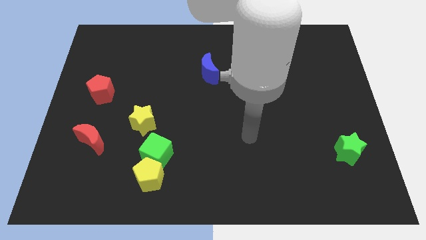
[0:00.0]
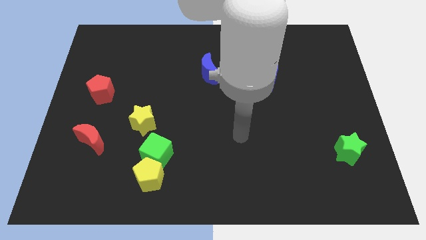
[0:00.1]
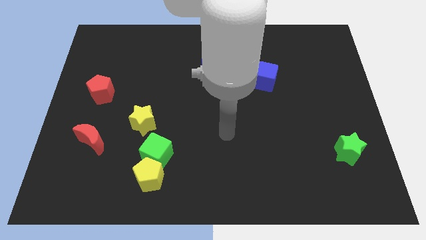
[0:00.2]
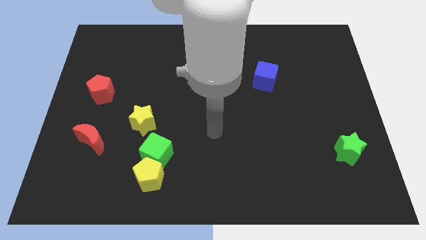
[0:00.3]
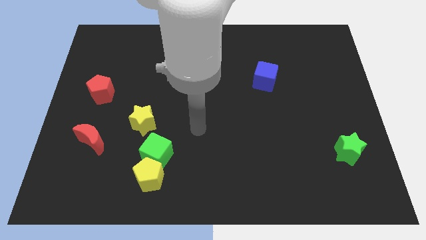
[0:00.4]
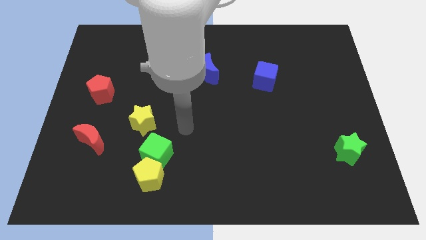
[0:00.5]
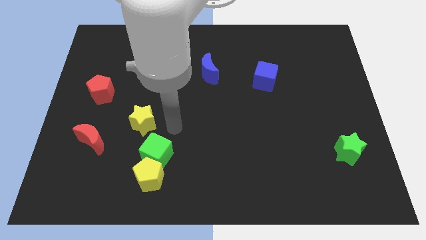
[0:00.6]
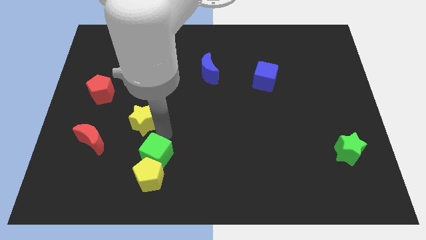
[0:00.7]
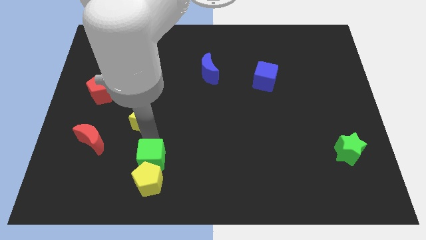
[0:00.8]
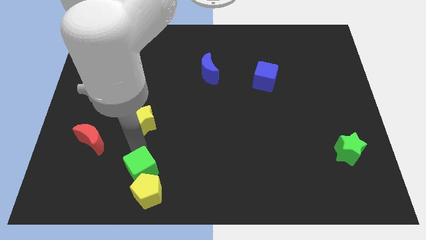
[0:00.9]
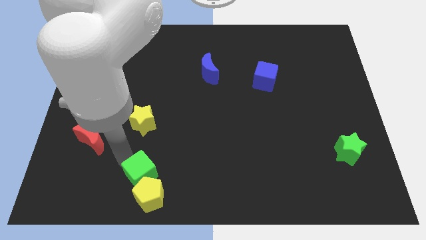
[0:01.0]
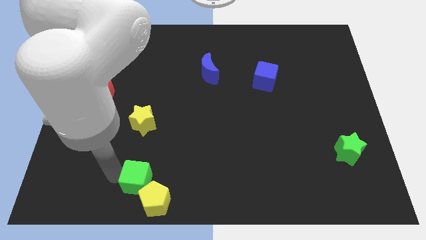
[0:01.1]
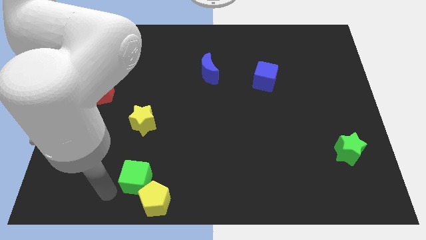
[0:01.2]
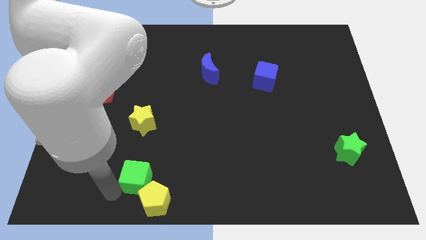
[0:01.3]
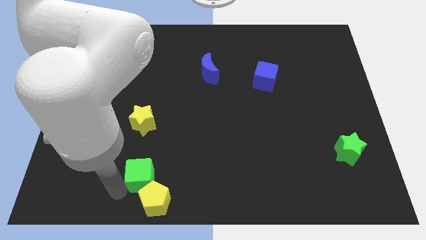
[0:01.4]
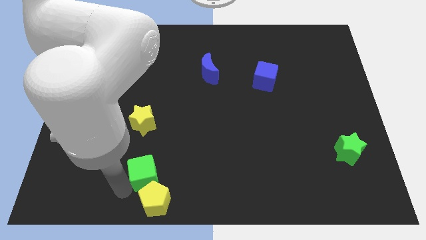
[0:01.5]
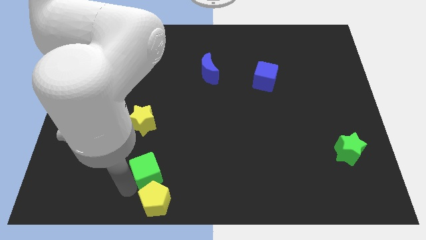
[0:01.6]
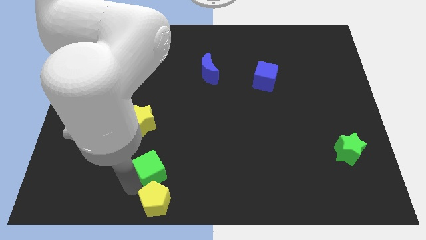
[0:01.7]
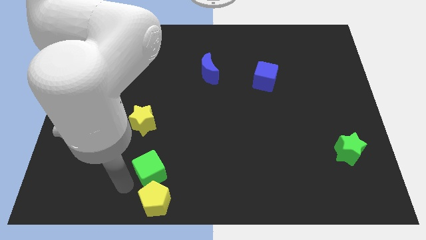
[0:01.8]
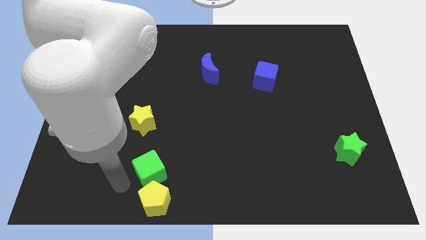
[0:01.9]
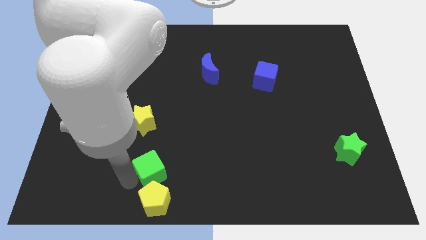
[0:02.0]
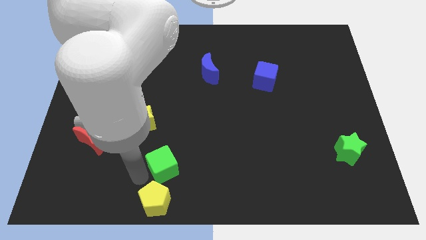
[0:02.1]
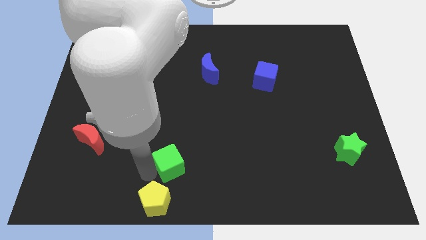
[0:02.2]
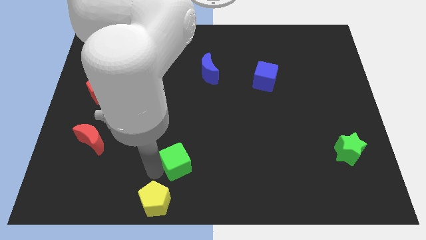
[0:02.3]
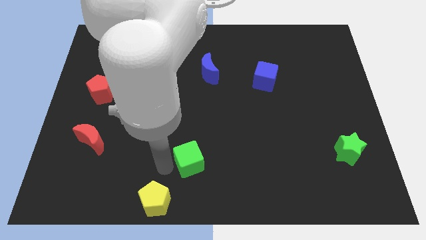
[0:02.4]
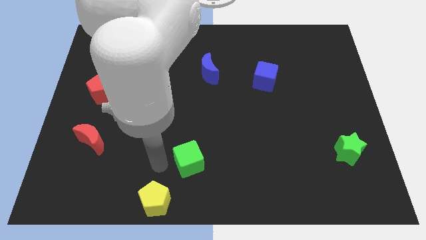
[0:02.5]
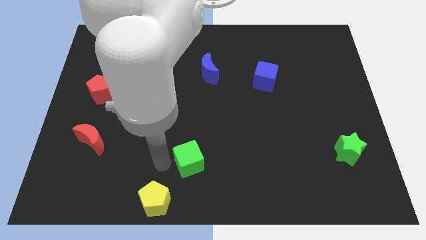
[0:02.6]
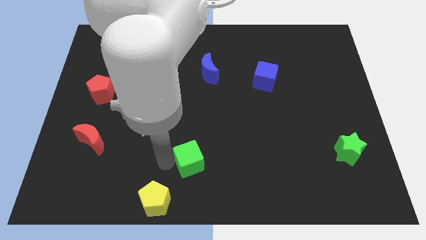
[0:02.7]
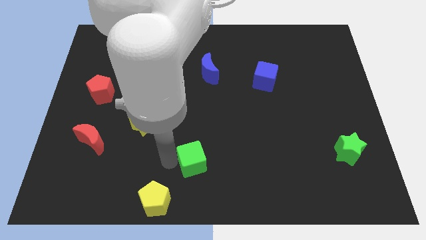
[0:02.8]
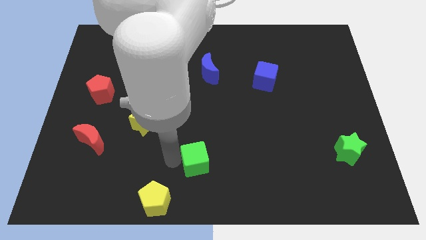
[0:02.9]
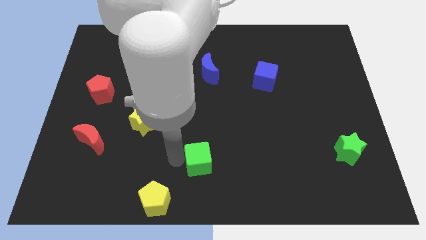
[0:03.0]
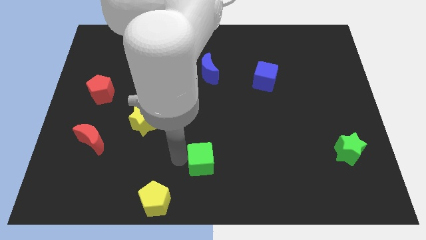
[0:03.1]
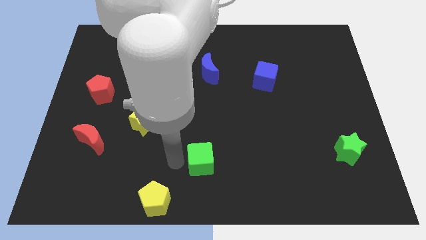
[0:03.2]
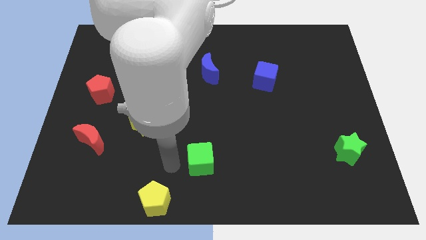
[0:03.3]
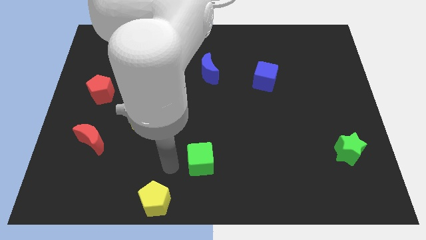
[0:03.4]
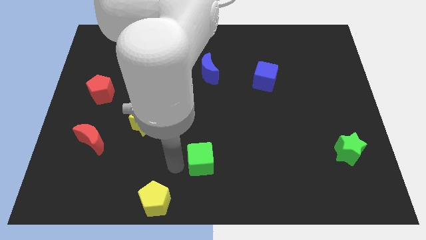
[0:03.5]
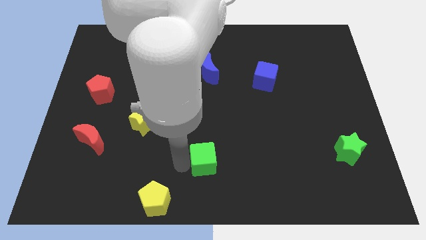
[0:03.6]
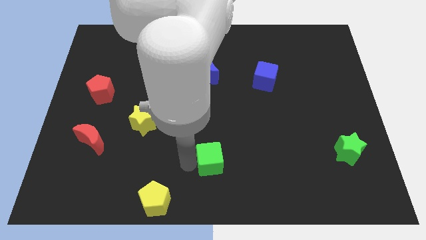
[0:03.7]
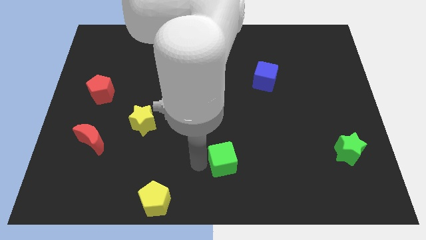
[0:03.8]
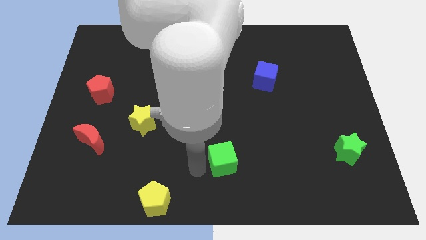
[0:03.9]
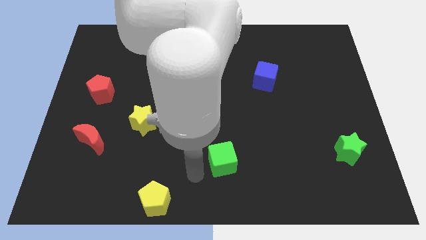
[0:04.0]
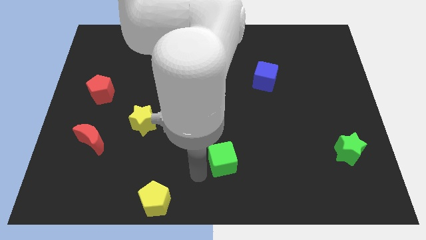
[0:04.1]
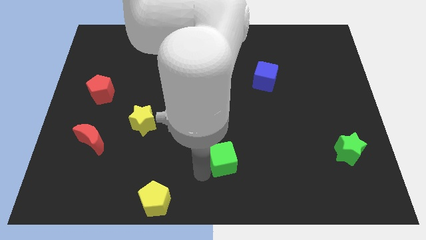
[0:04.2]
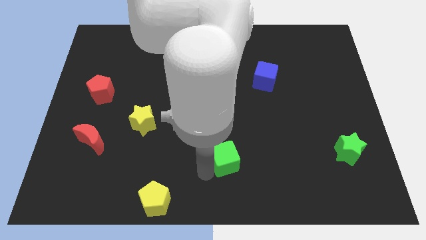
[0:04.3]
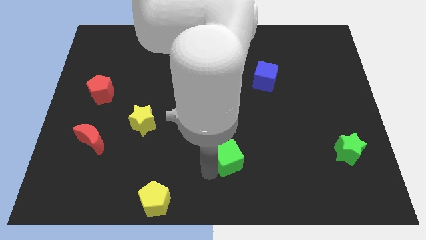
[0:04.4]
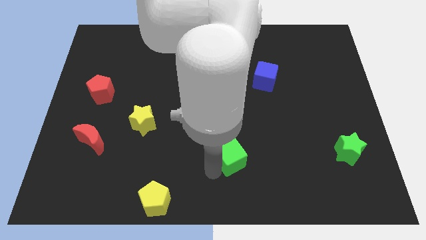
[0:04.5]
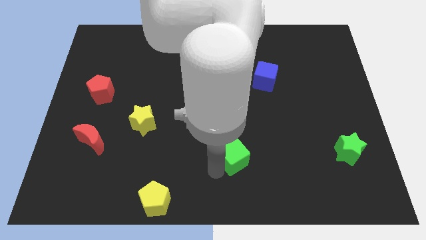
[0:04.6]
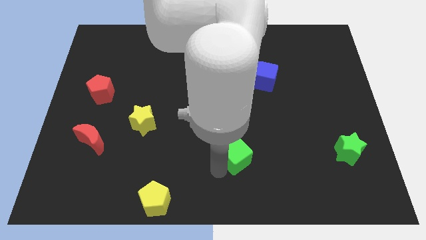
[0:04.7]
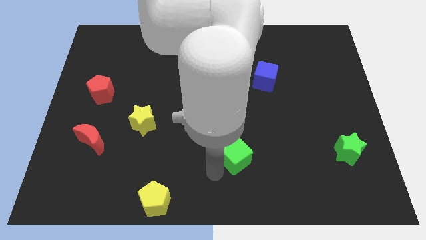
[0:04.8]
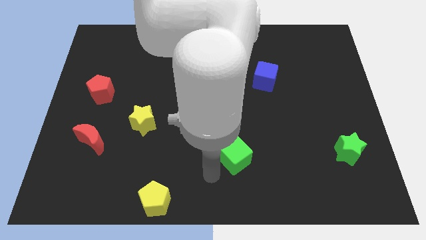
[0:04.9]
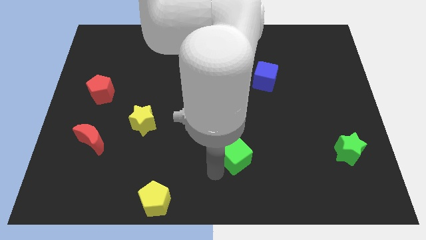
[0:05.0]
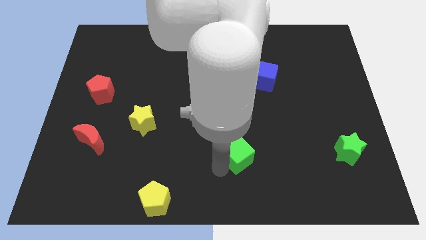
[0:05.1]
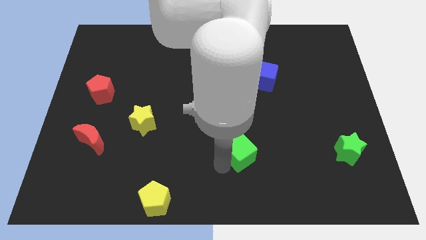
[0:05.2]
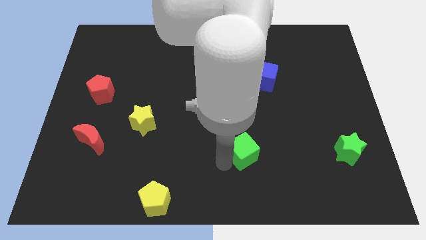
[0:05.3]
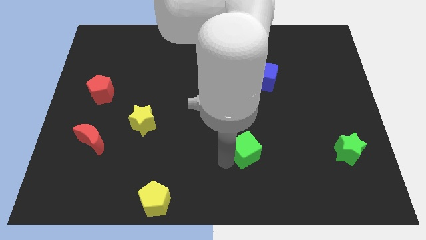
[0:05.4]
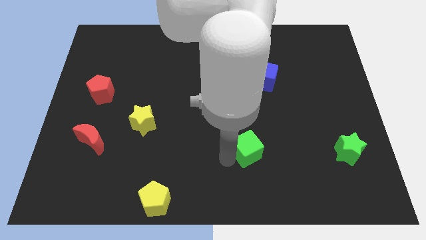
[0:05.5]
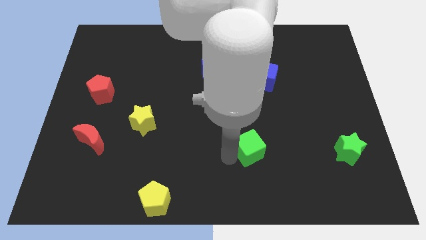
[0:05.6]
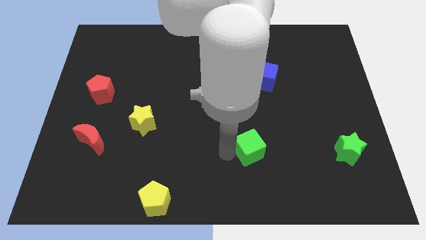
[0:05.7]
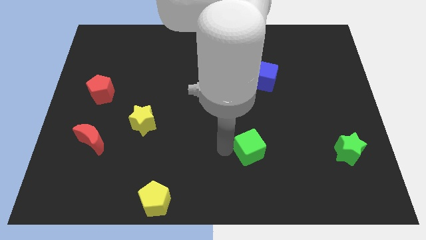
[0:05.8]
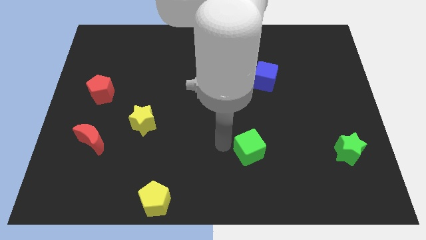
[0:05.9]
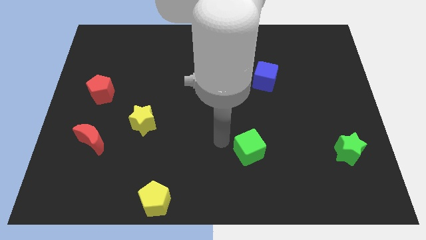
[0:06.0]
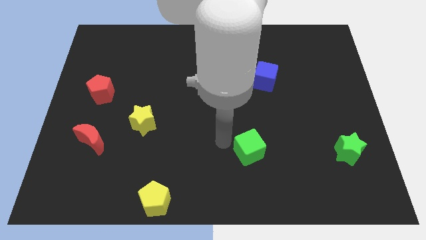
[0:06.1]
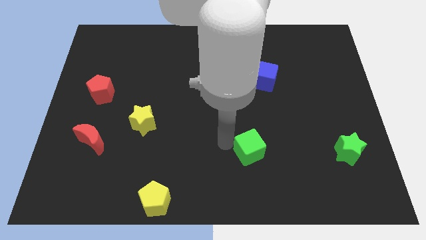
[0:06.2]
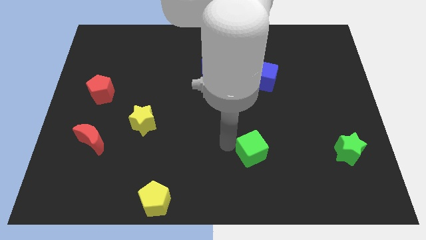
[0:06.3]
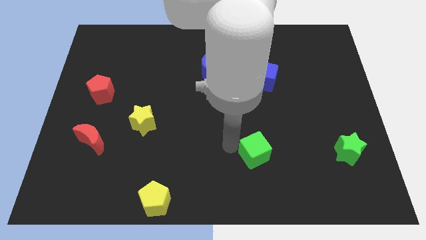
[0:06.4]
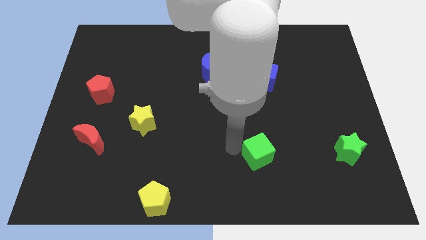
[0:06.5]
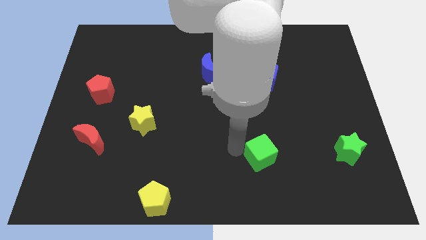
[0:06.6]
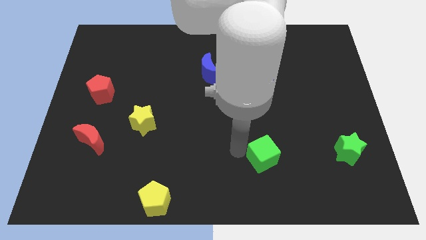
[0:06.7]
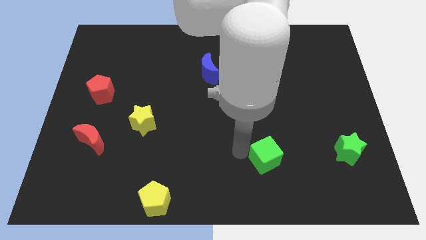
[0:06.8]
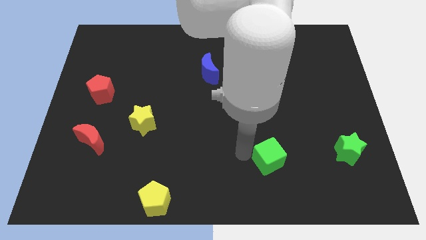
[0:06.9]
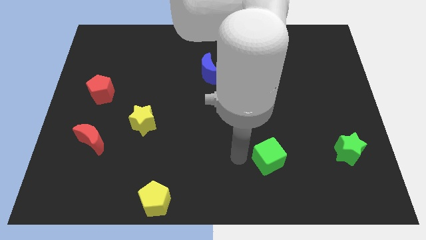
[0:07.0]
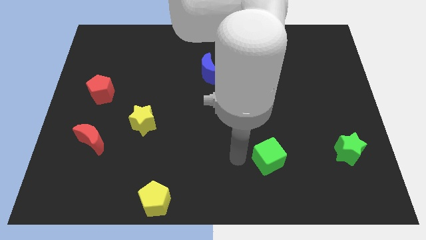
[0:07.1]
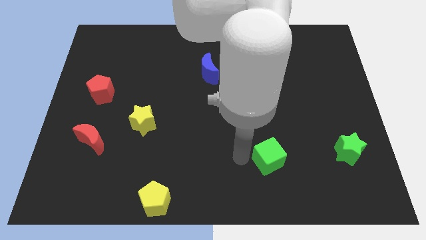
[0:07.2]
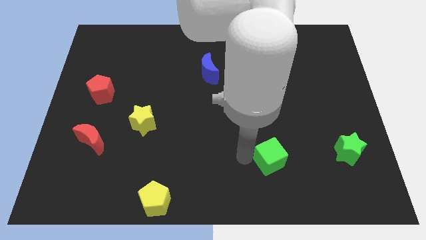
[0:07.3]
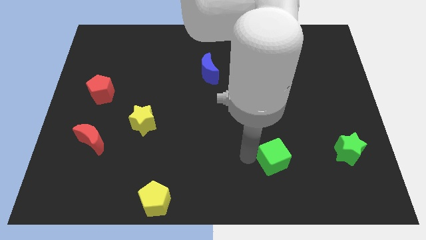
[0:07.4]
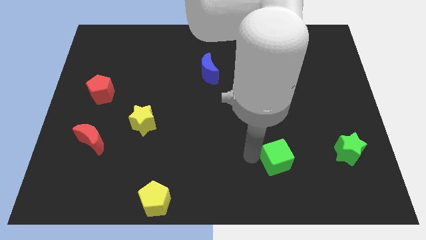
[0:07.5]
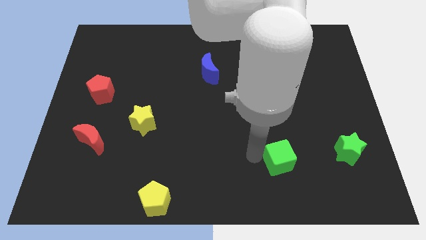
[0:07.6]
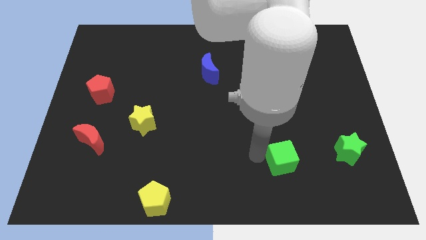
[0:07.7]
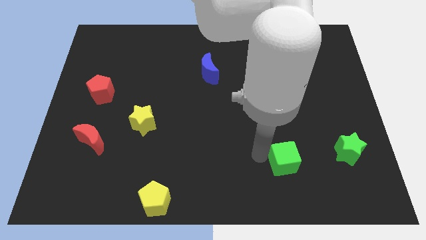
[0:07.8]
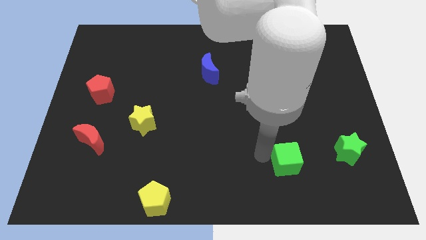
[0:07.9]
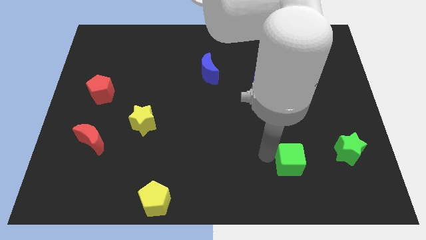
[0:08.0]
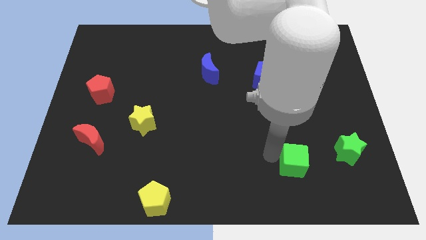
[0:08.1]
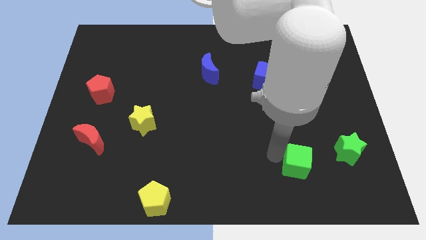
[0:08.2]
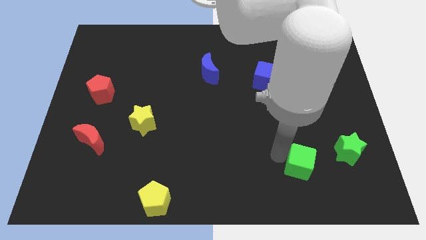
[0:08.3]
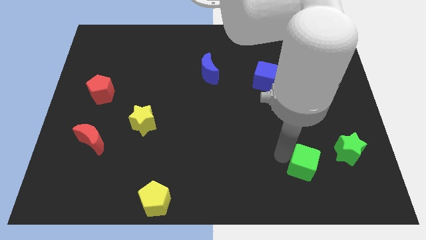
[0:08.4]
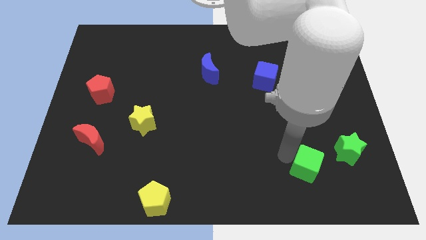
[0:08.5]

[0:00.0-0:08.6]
slide the green cube to the bottom left side of the green star
